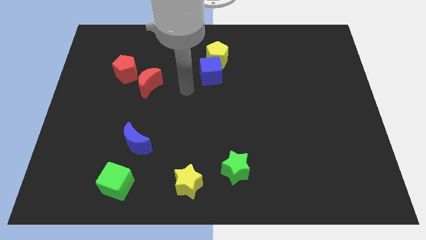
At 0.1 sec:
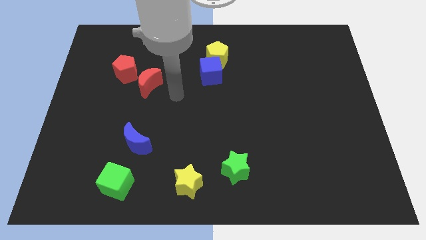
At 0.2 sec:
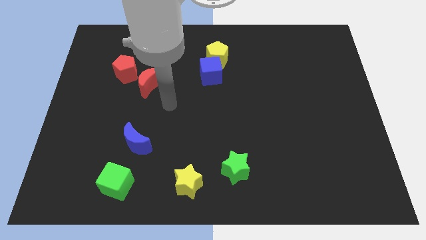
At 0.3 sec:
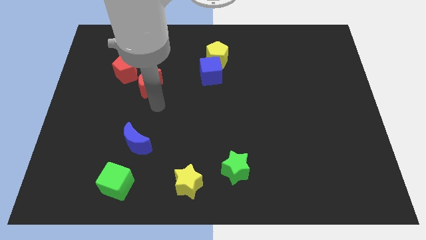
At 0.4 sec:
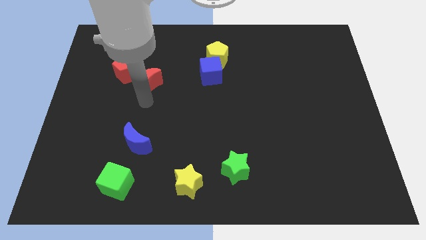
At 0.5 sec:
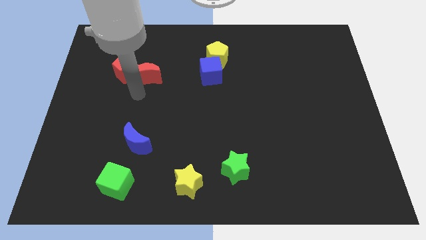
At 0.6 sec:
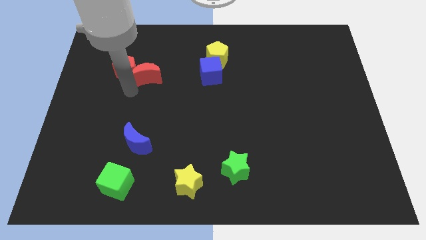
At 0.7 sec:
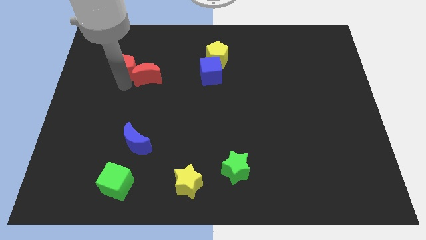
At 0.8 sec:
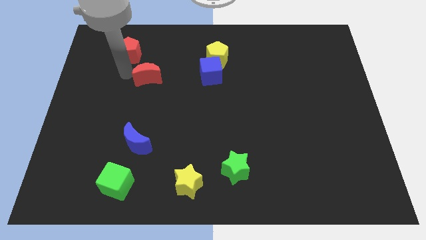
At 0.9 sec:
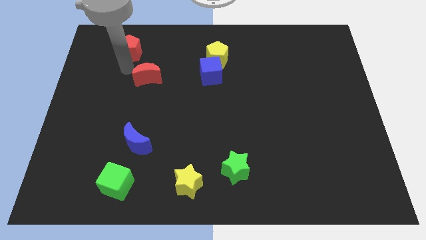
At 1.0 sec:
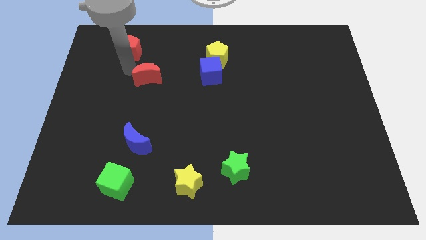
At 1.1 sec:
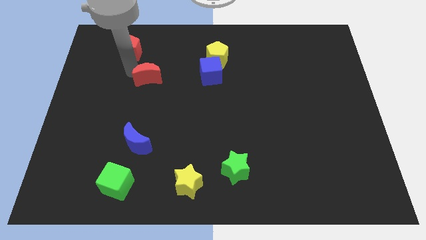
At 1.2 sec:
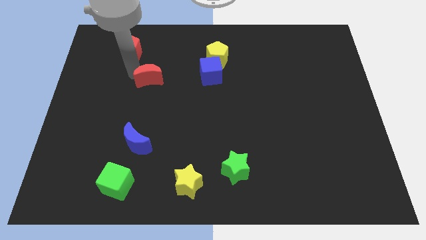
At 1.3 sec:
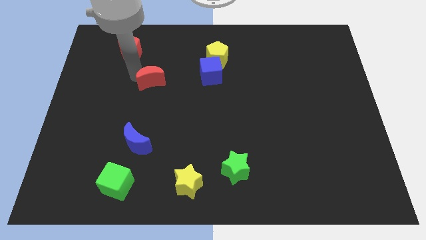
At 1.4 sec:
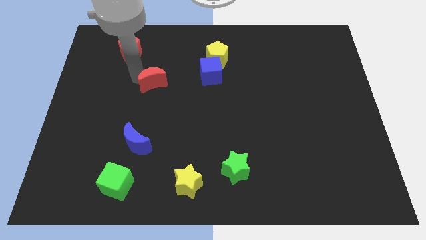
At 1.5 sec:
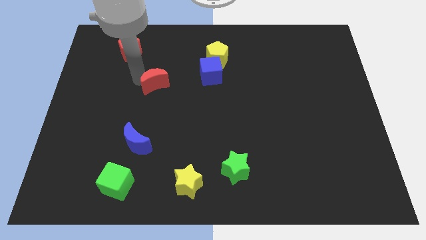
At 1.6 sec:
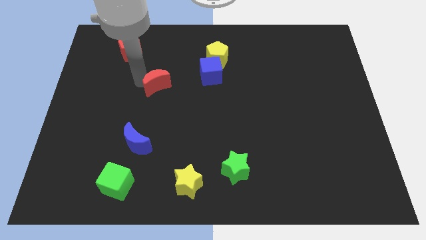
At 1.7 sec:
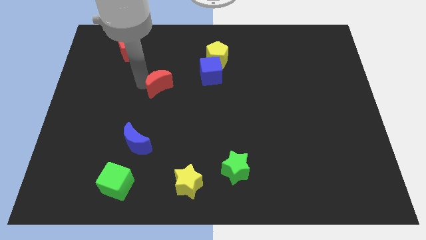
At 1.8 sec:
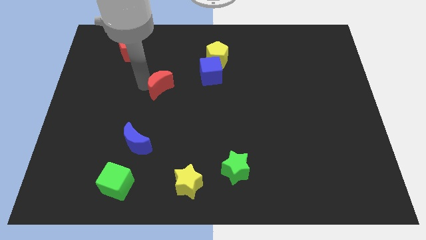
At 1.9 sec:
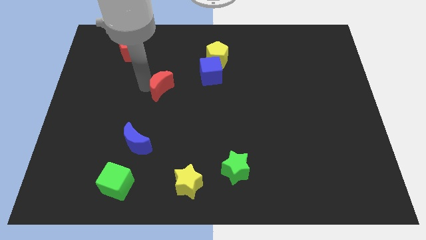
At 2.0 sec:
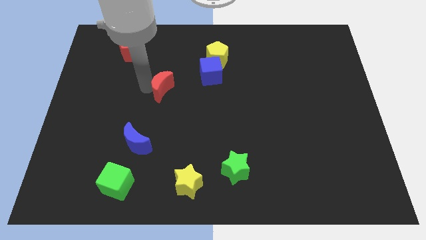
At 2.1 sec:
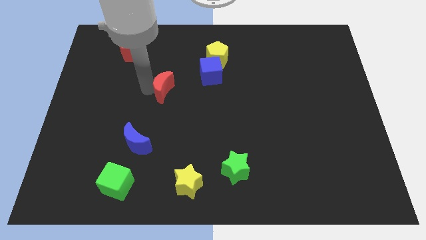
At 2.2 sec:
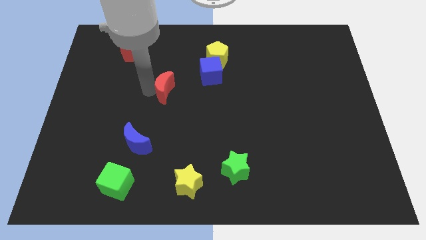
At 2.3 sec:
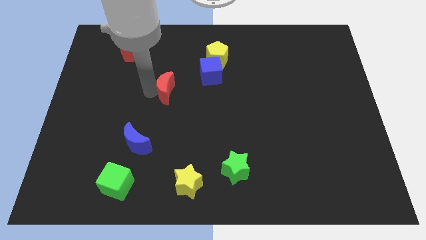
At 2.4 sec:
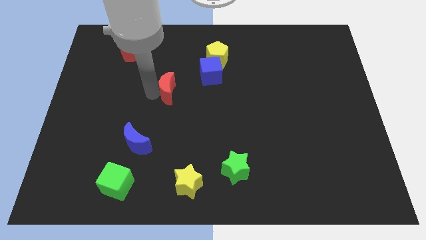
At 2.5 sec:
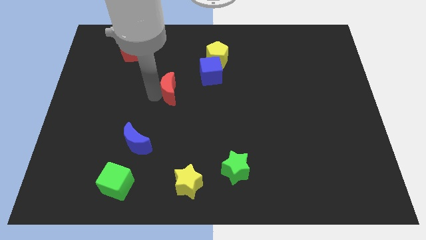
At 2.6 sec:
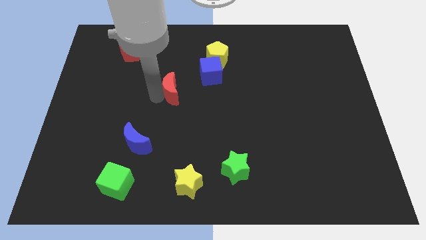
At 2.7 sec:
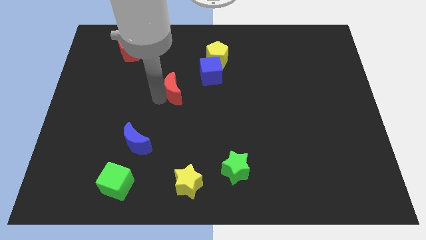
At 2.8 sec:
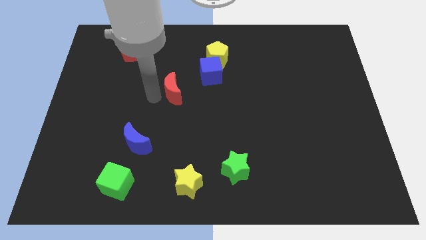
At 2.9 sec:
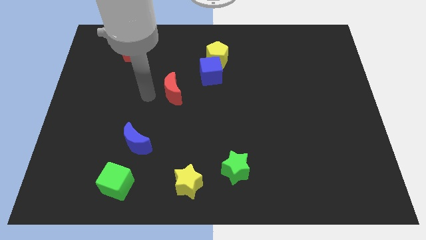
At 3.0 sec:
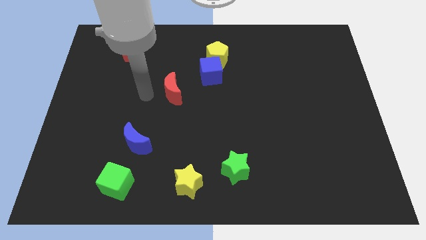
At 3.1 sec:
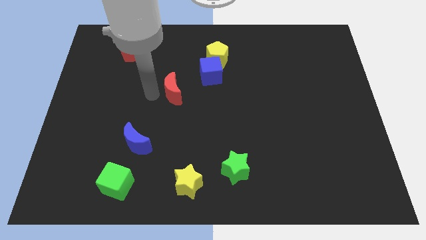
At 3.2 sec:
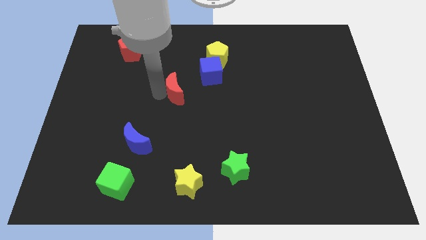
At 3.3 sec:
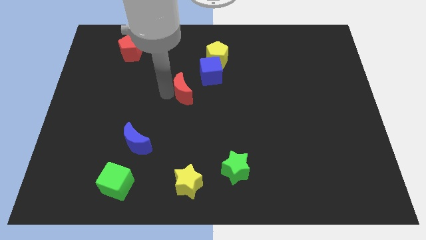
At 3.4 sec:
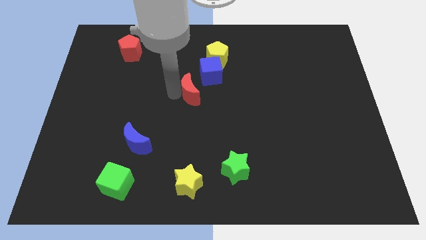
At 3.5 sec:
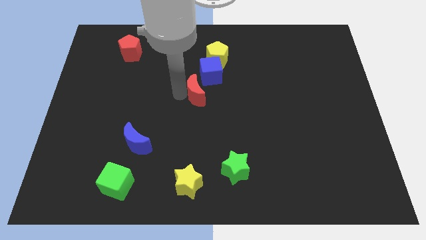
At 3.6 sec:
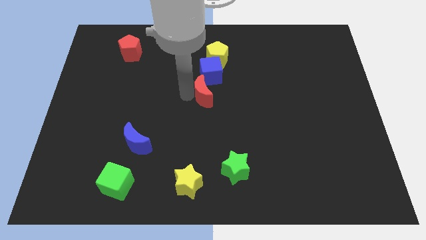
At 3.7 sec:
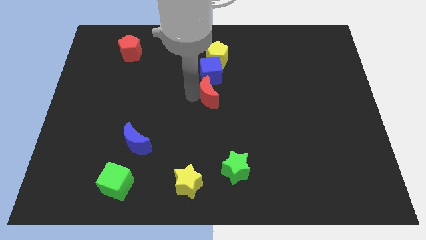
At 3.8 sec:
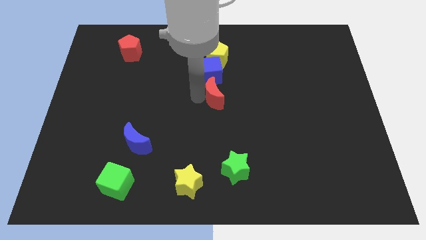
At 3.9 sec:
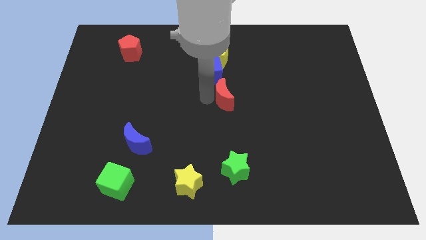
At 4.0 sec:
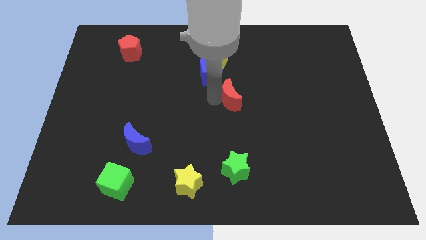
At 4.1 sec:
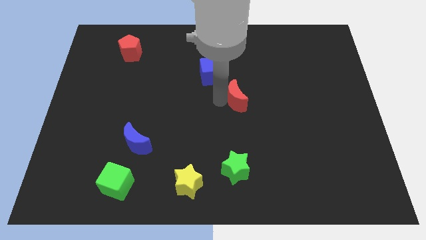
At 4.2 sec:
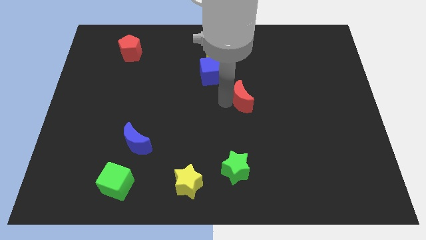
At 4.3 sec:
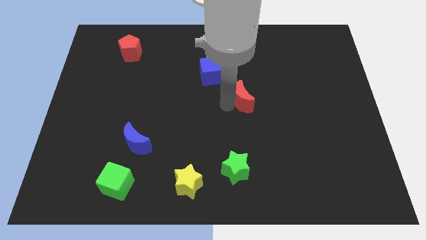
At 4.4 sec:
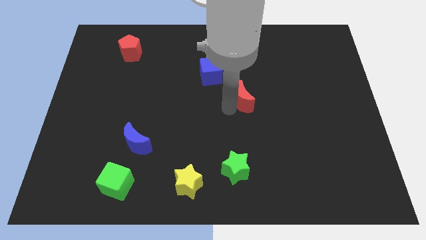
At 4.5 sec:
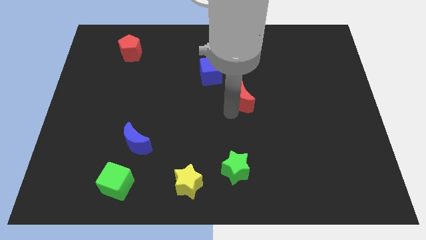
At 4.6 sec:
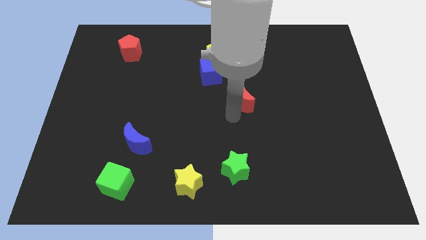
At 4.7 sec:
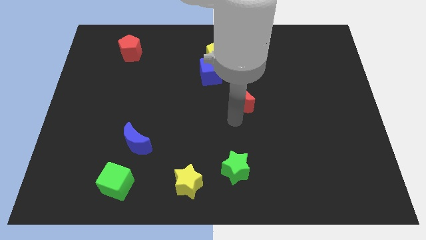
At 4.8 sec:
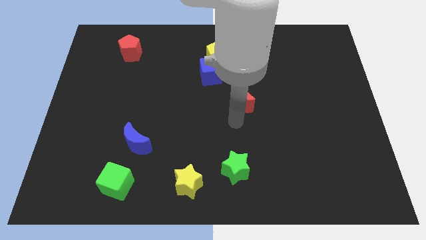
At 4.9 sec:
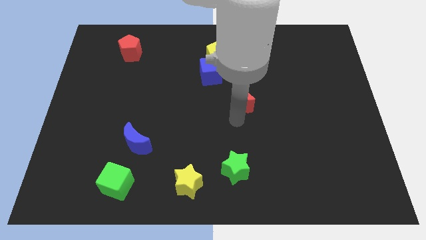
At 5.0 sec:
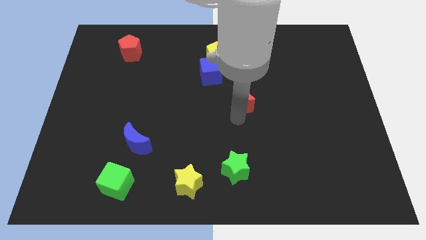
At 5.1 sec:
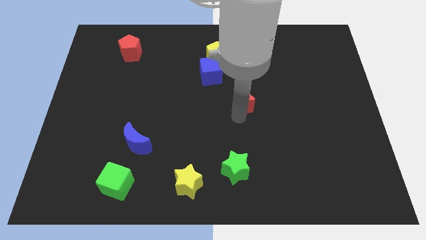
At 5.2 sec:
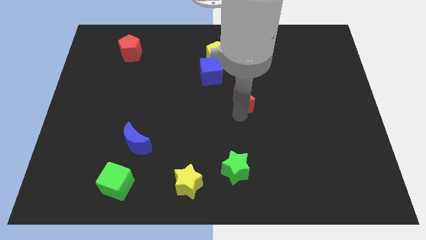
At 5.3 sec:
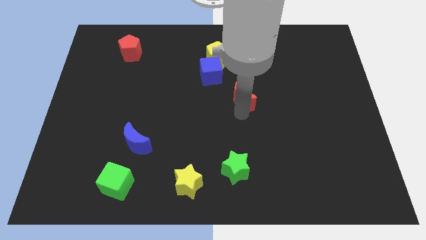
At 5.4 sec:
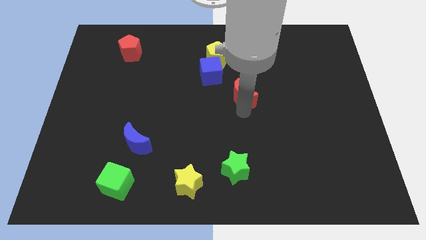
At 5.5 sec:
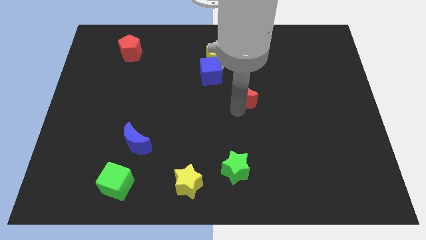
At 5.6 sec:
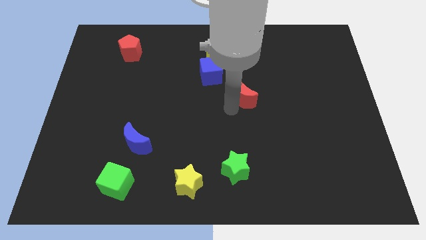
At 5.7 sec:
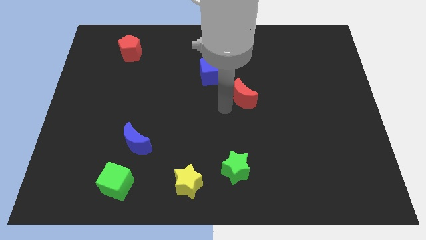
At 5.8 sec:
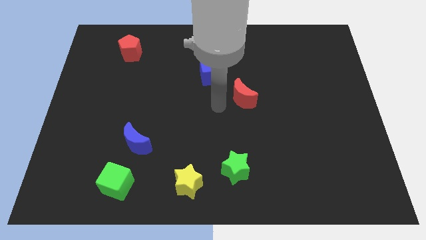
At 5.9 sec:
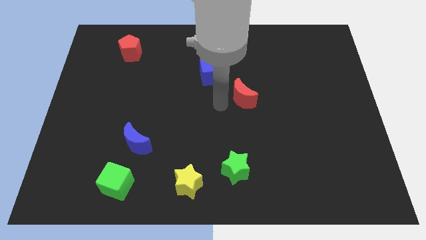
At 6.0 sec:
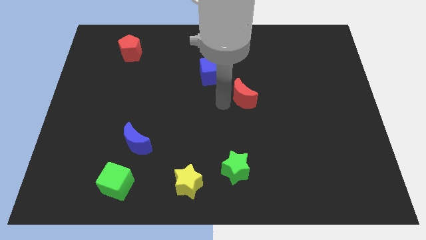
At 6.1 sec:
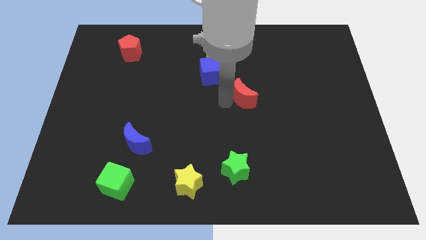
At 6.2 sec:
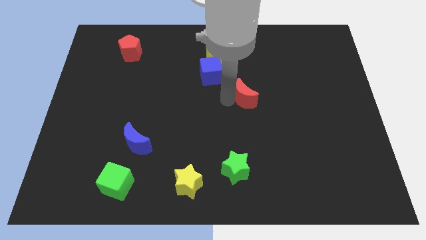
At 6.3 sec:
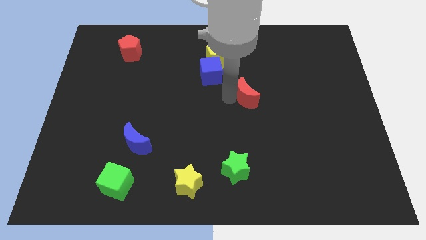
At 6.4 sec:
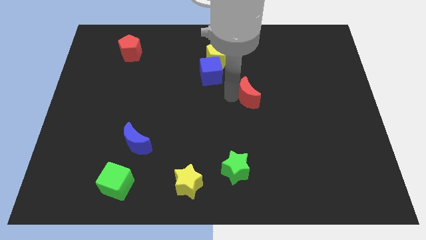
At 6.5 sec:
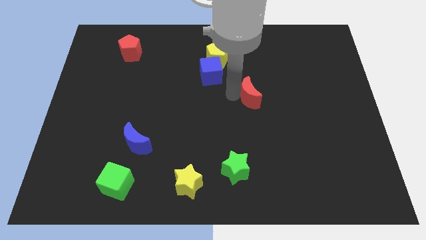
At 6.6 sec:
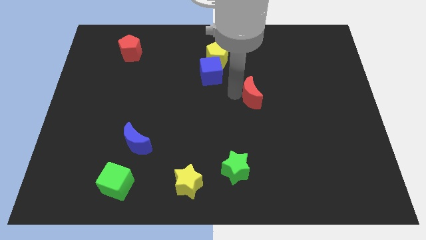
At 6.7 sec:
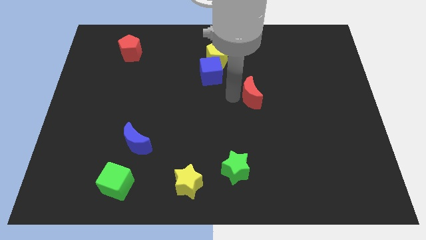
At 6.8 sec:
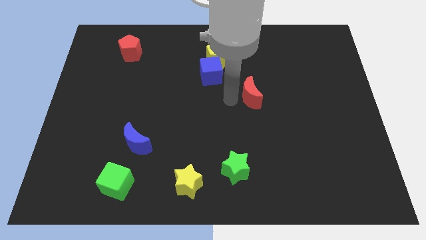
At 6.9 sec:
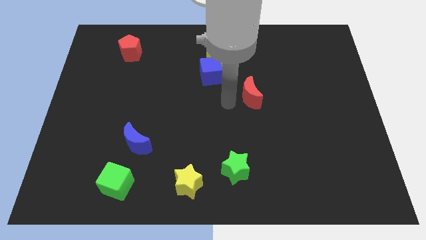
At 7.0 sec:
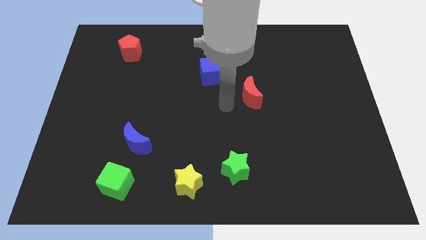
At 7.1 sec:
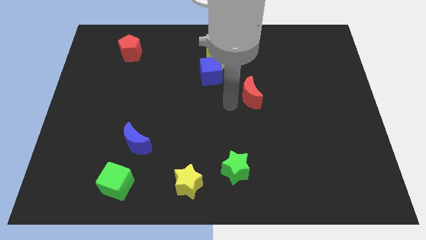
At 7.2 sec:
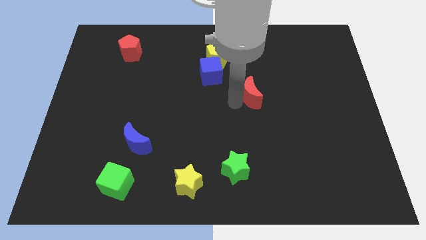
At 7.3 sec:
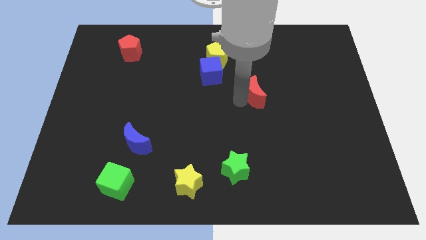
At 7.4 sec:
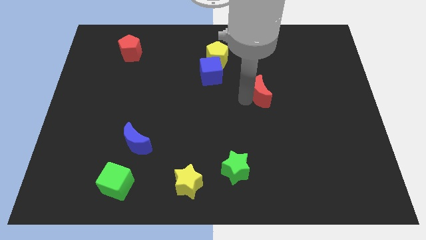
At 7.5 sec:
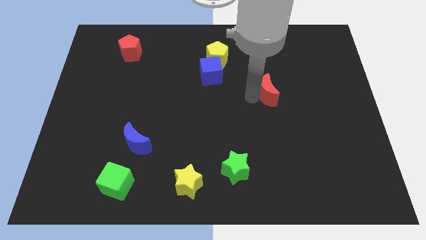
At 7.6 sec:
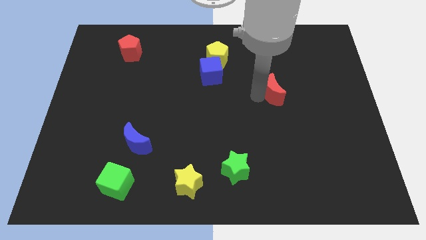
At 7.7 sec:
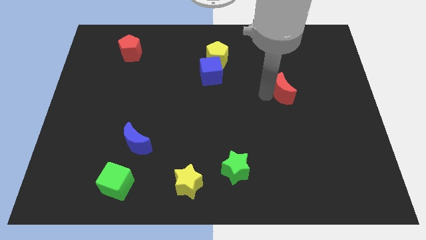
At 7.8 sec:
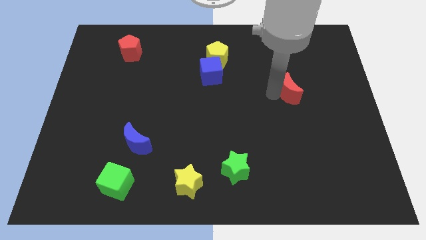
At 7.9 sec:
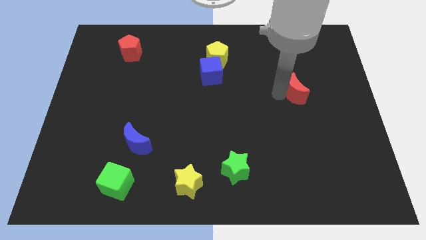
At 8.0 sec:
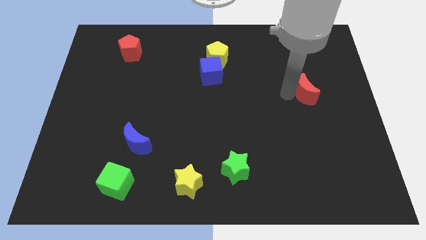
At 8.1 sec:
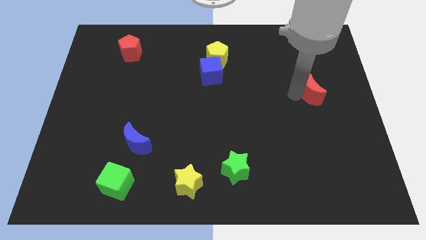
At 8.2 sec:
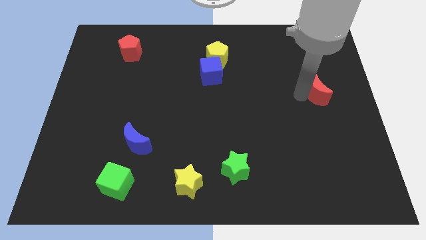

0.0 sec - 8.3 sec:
put the red moon to the right side
